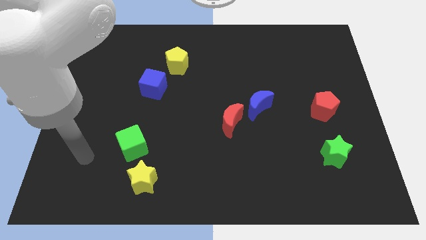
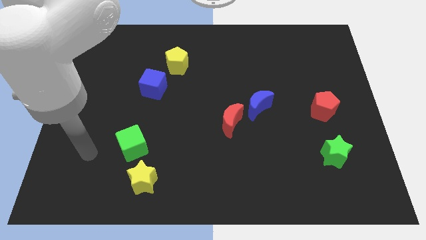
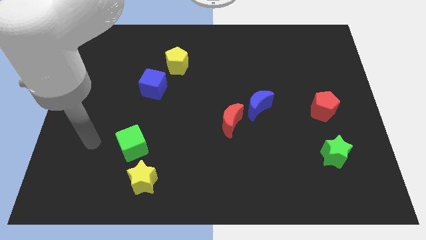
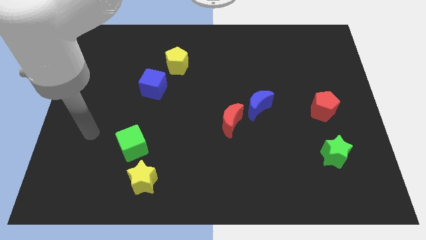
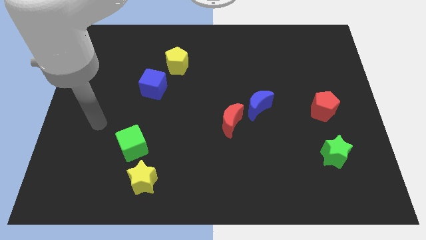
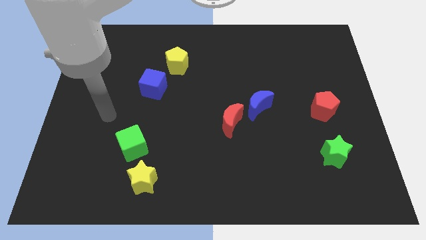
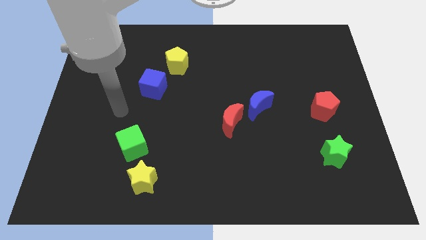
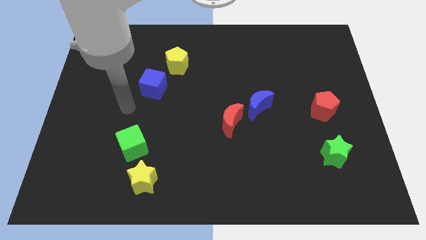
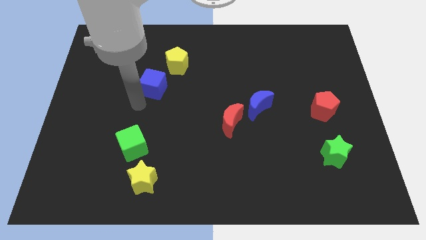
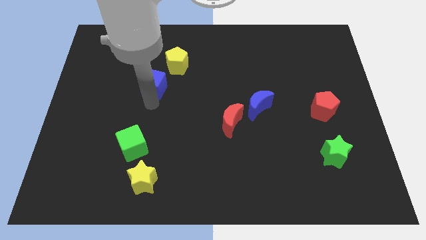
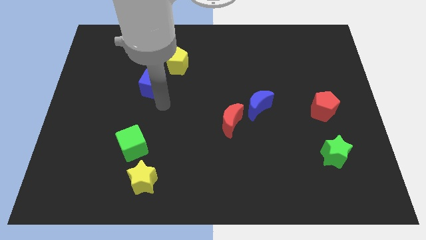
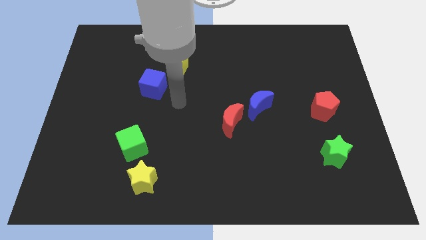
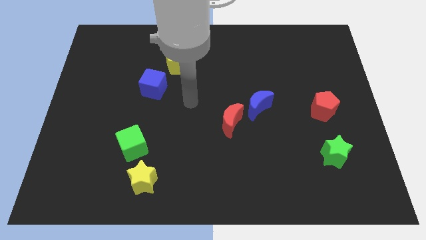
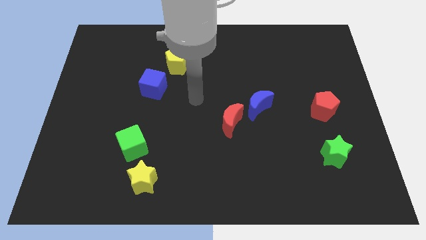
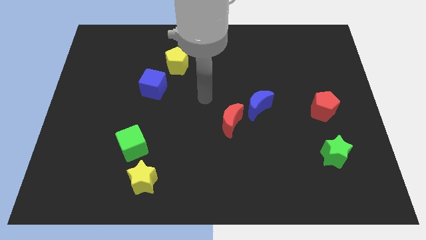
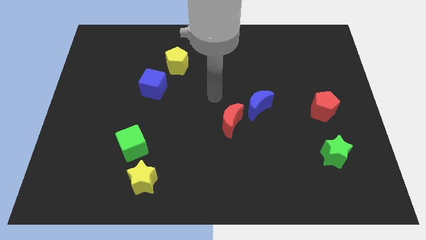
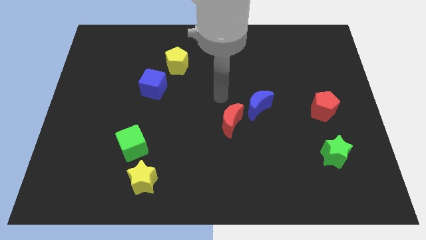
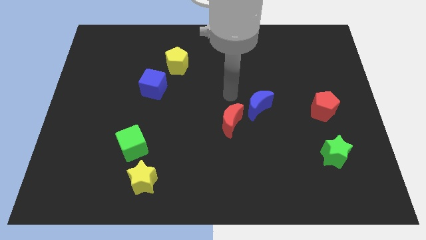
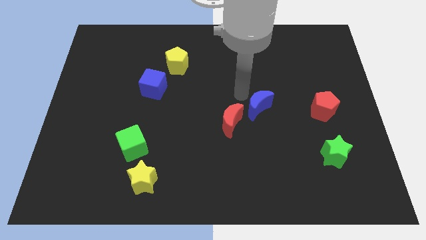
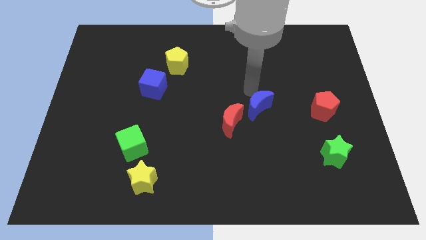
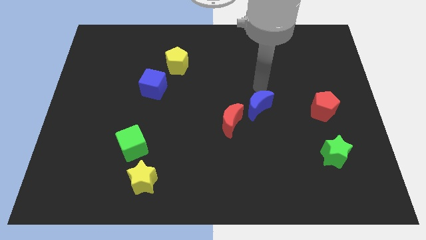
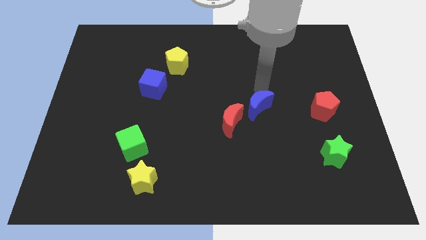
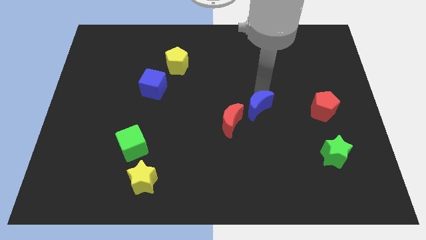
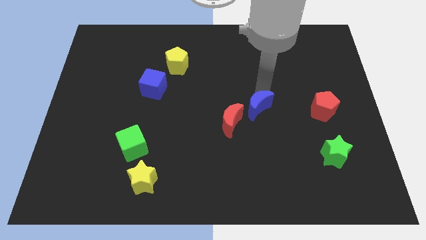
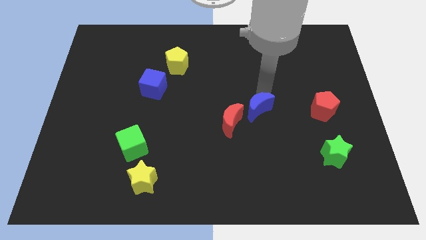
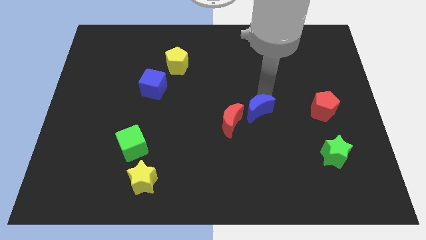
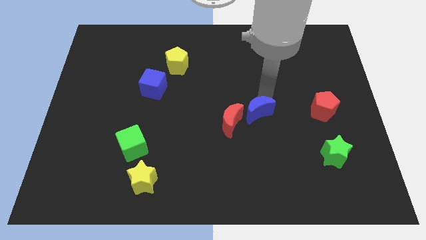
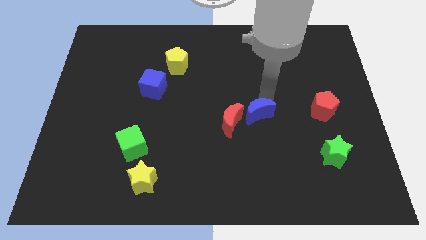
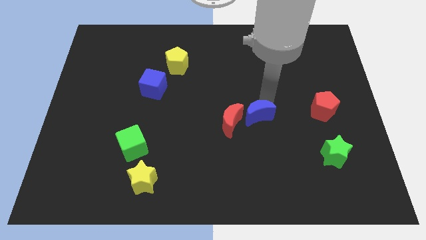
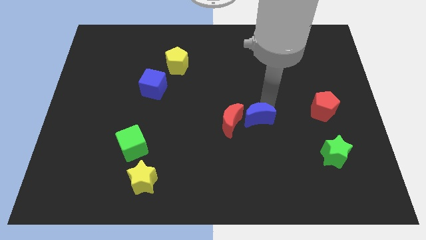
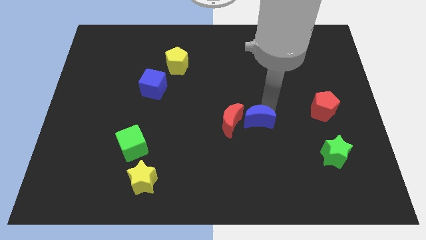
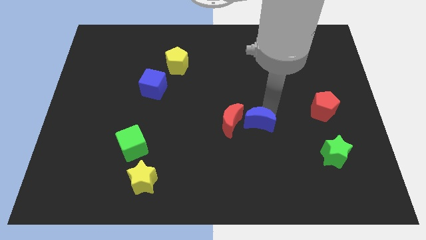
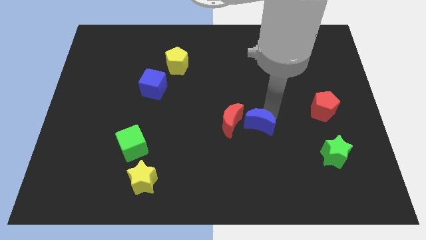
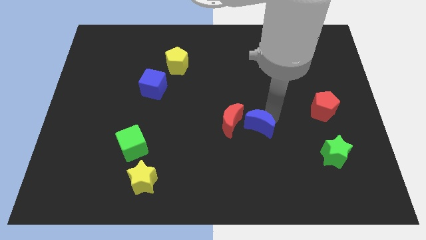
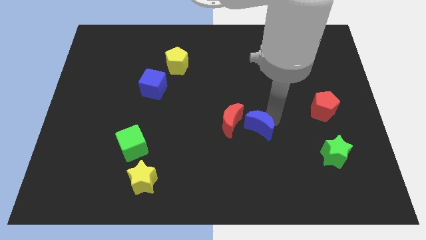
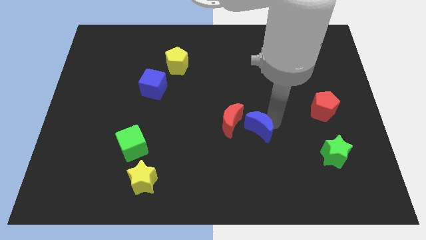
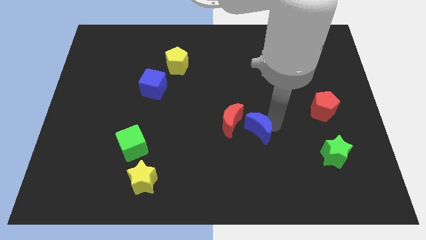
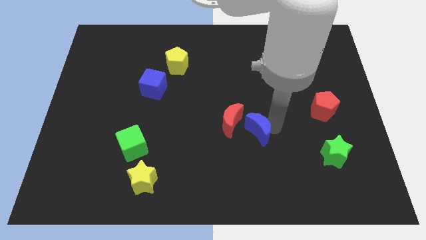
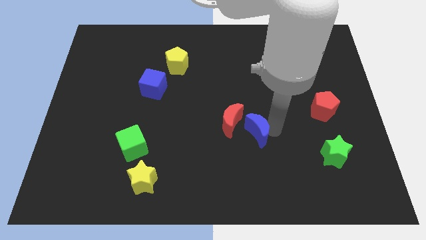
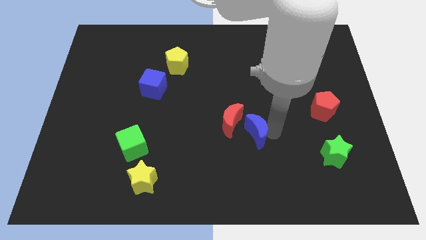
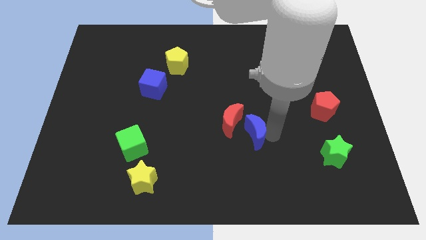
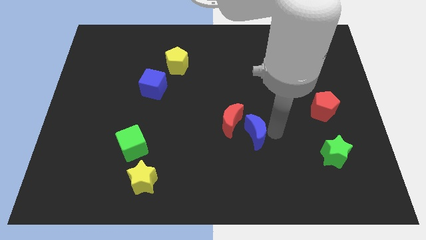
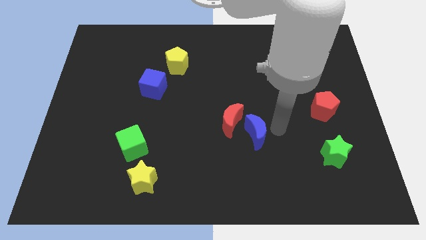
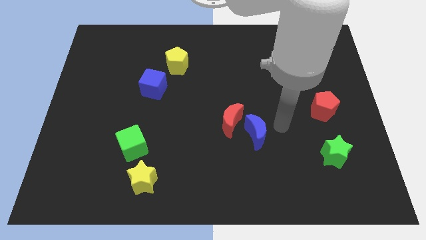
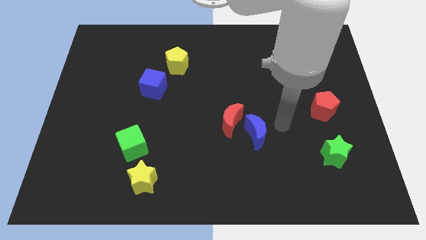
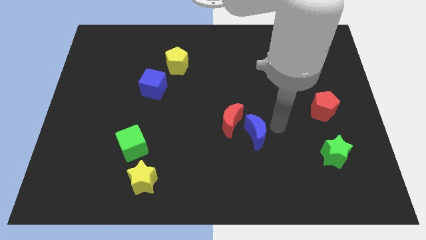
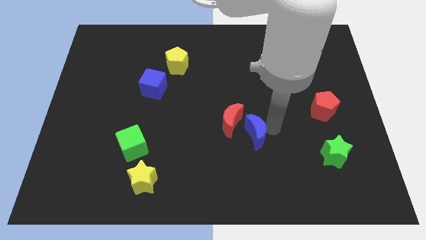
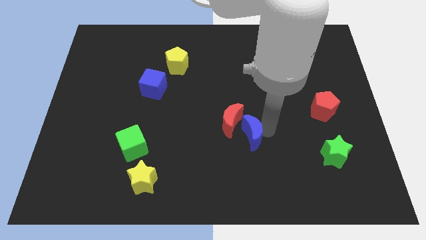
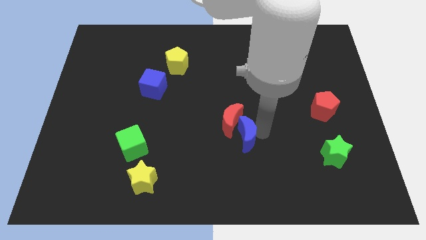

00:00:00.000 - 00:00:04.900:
slightly move the blue moon downwards and then to the left

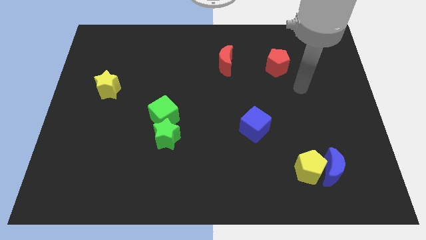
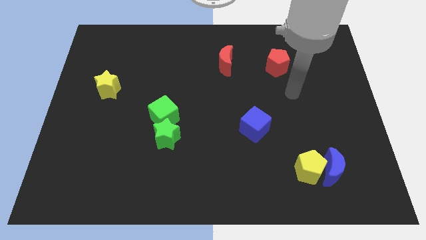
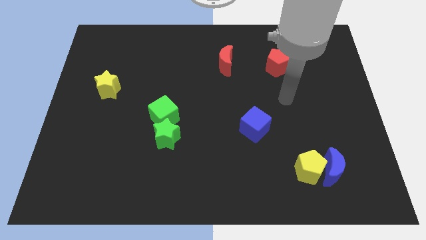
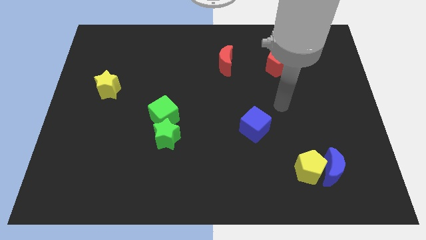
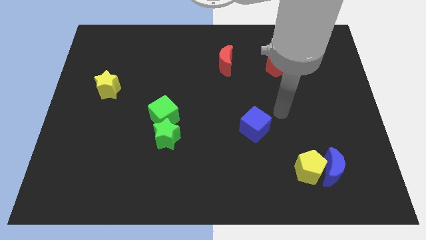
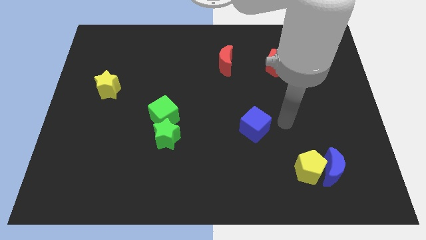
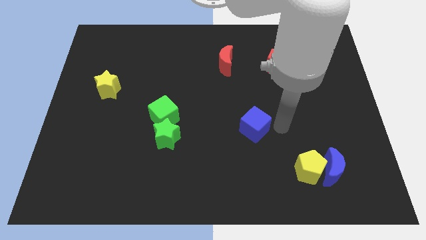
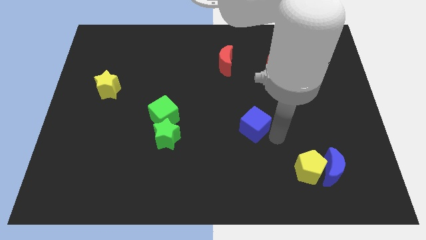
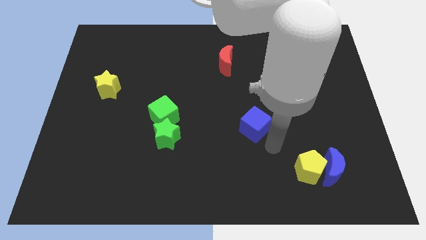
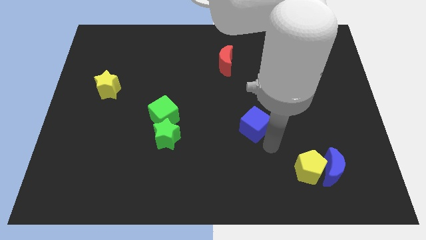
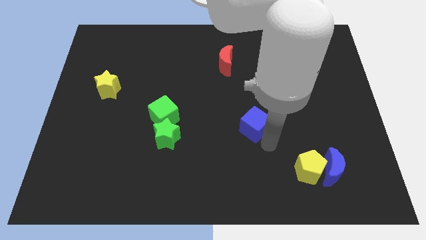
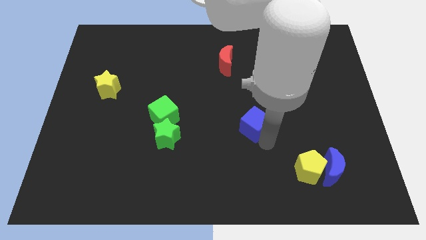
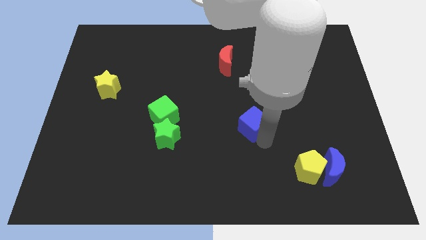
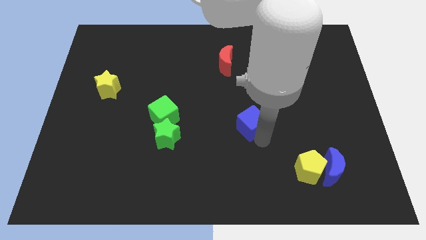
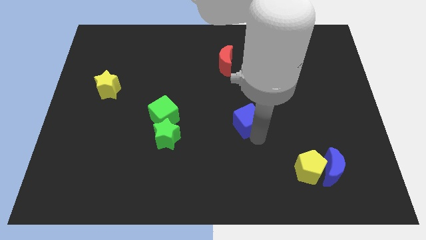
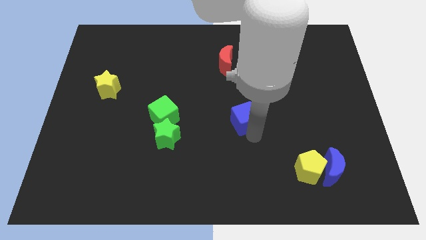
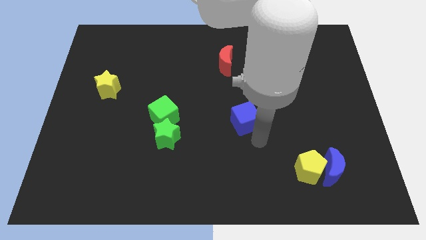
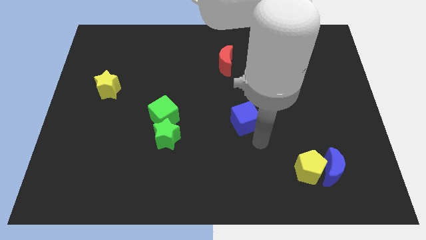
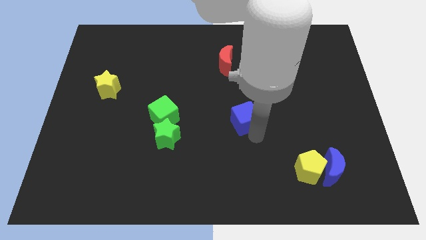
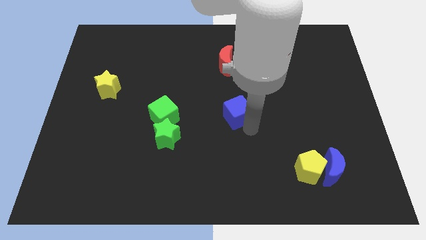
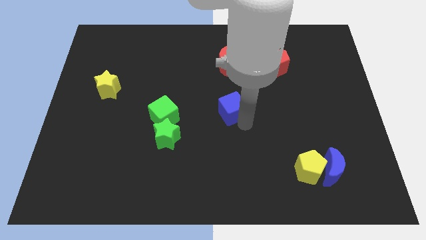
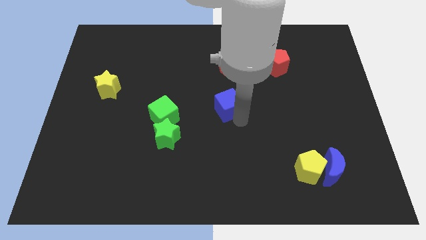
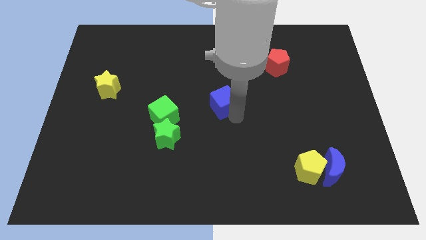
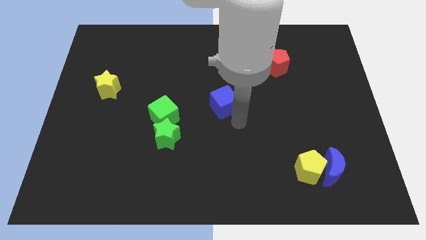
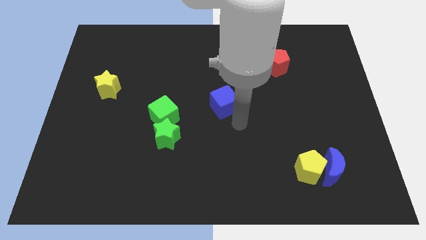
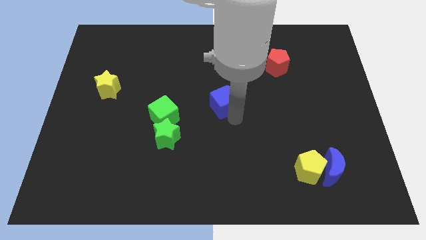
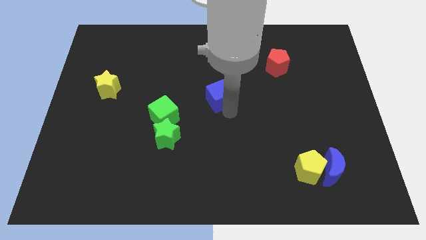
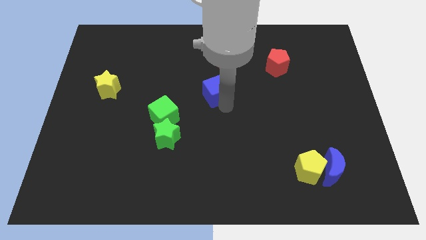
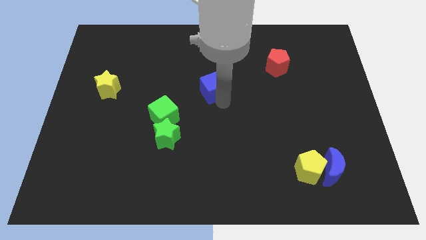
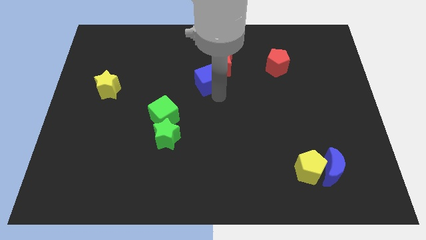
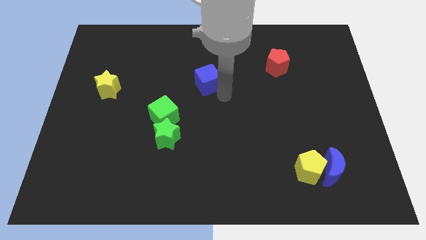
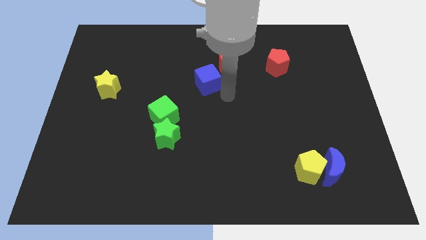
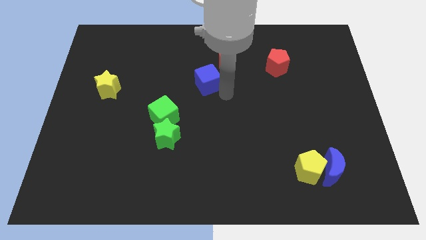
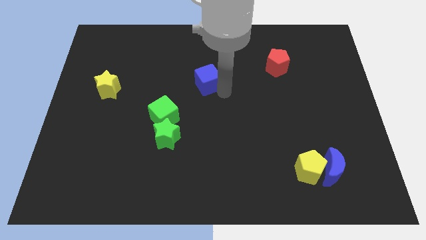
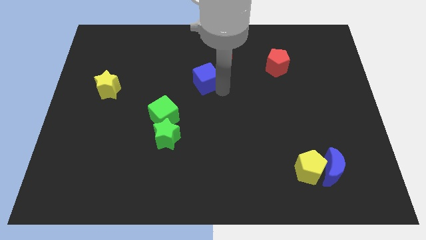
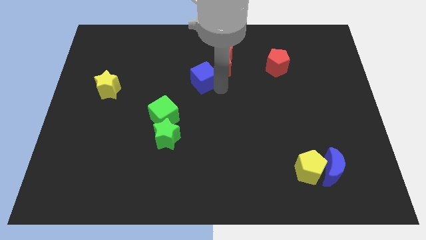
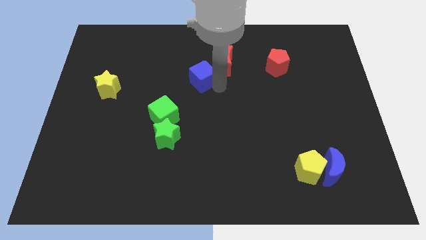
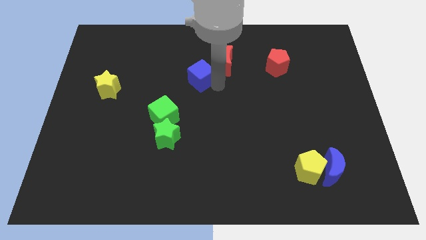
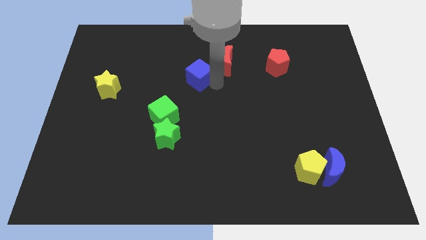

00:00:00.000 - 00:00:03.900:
slide the blue cube upwards and left diagonally
